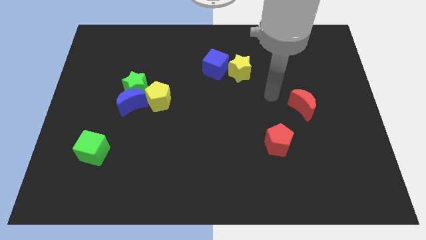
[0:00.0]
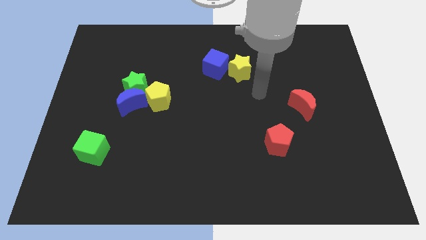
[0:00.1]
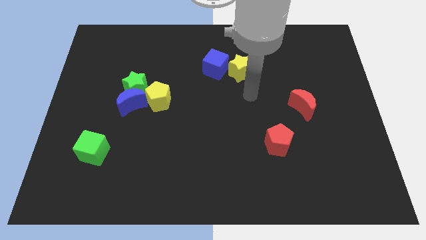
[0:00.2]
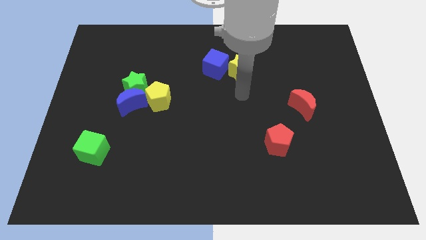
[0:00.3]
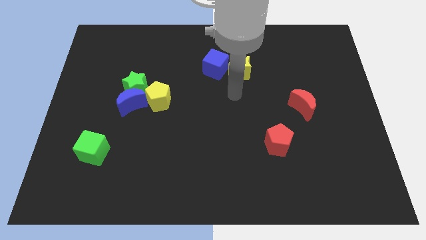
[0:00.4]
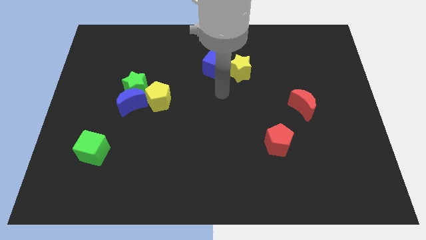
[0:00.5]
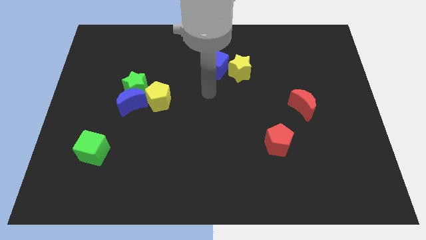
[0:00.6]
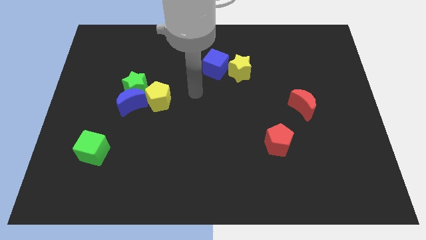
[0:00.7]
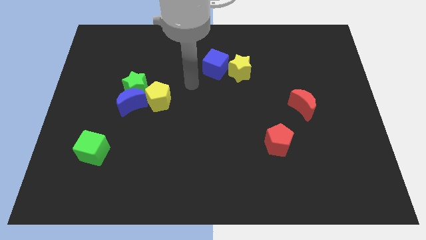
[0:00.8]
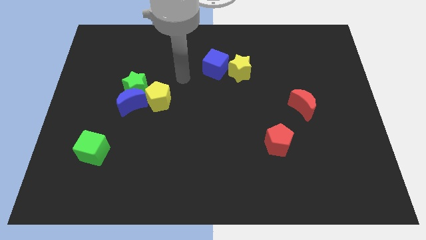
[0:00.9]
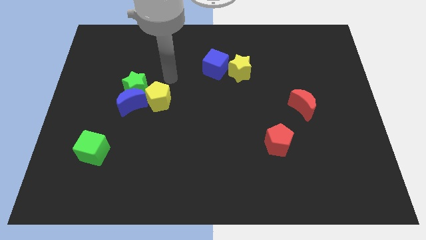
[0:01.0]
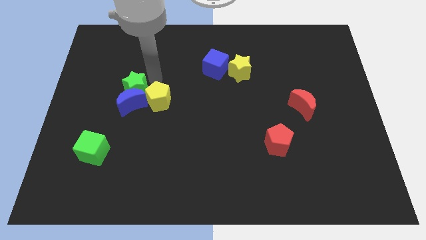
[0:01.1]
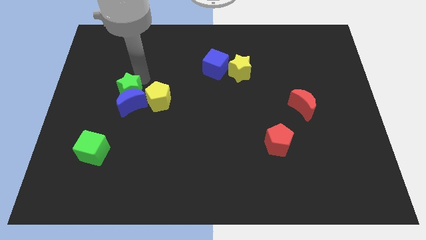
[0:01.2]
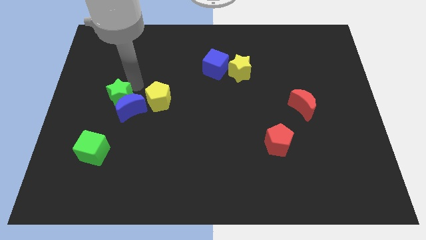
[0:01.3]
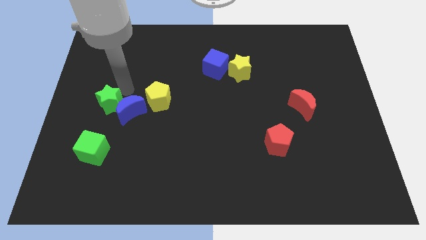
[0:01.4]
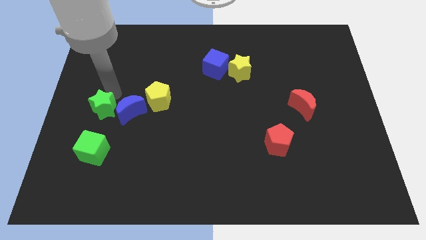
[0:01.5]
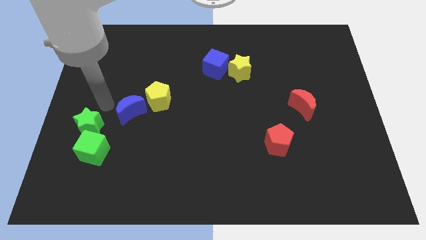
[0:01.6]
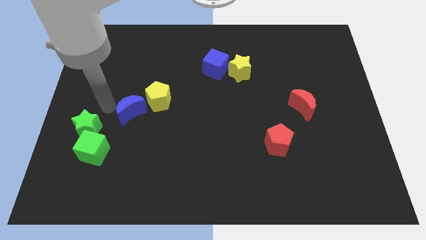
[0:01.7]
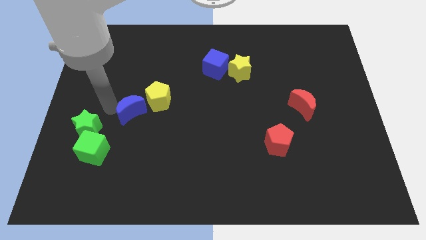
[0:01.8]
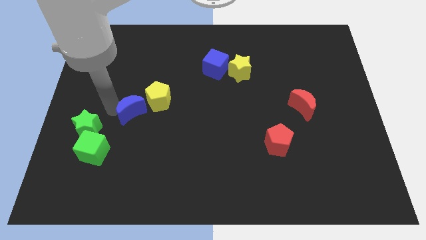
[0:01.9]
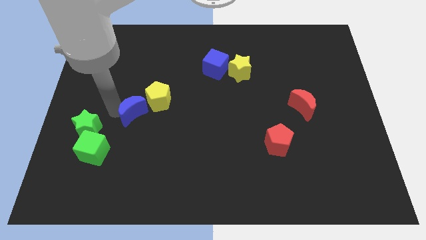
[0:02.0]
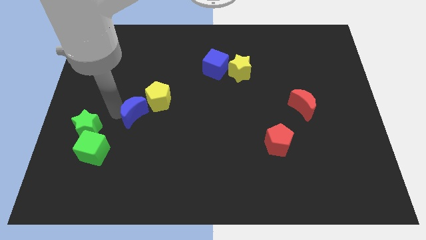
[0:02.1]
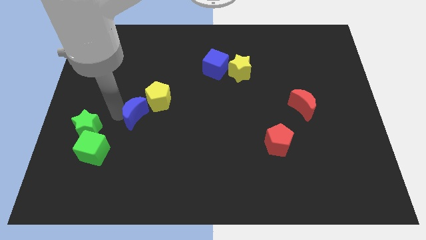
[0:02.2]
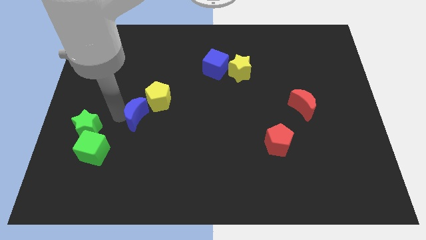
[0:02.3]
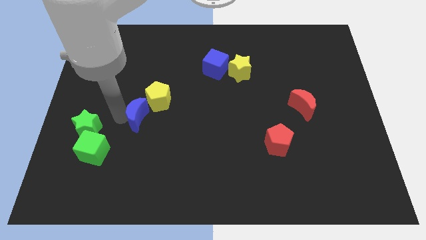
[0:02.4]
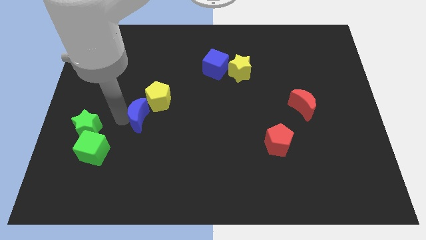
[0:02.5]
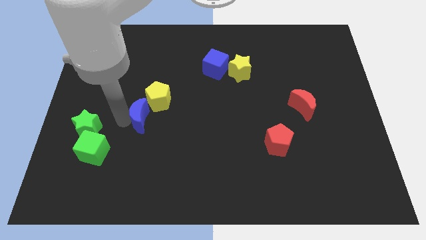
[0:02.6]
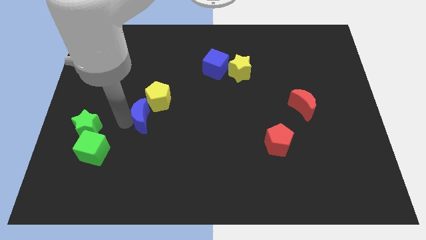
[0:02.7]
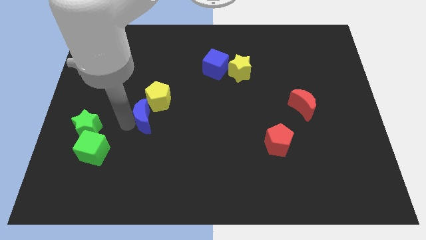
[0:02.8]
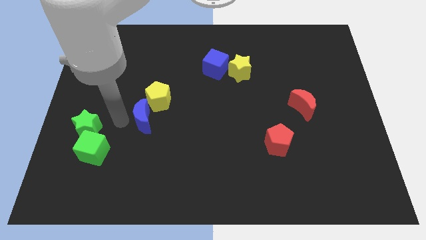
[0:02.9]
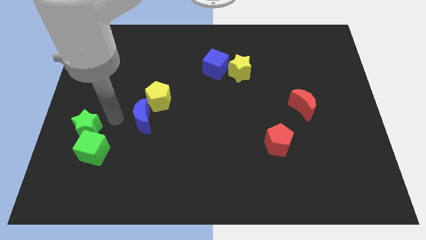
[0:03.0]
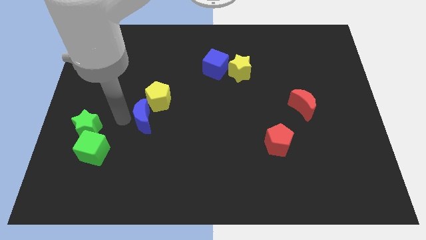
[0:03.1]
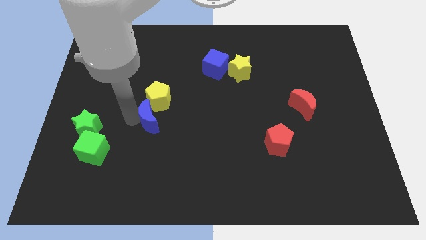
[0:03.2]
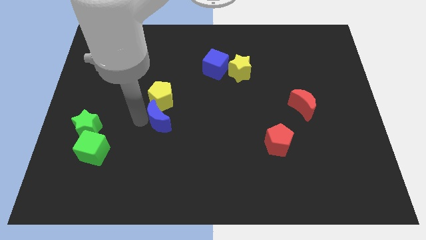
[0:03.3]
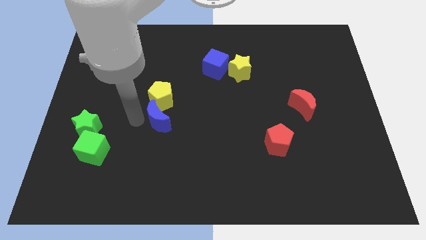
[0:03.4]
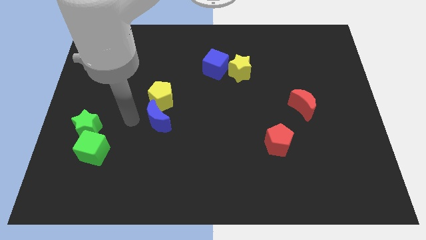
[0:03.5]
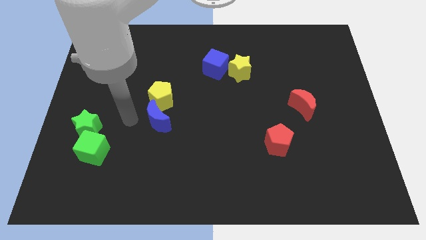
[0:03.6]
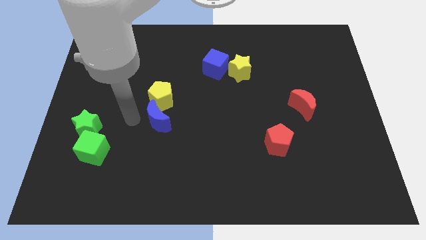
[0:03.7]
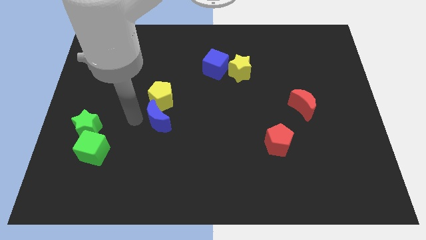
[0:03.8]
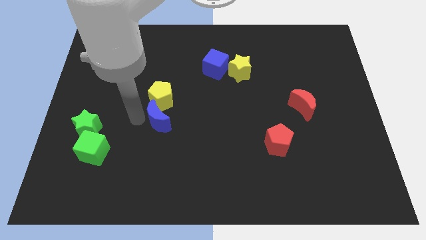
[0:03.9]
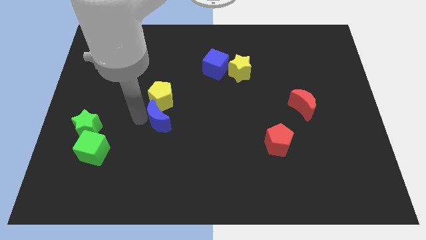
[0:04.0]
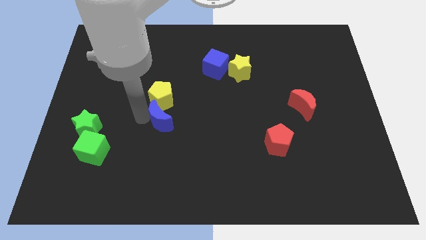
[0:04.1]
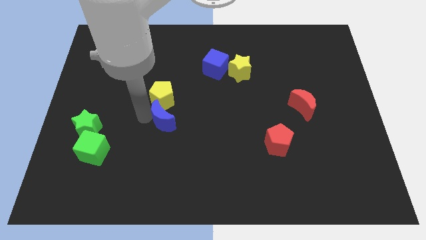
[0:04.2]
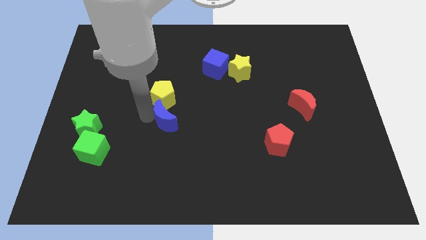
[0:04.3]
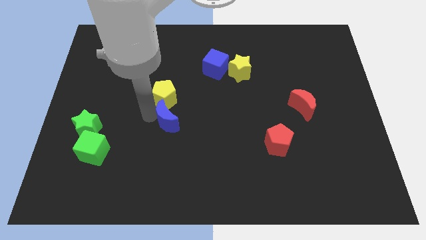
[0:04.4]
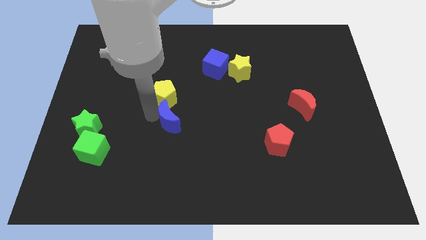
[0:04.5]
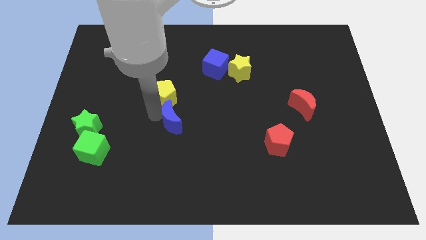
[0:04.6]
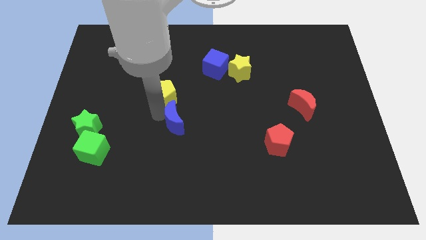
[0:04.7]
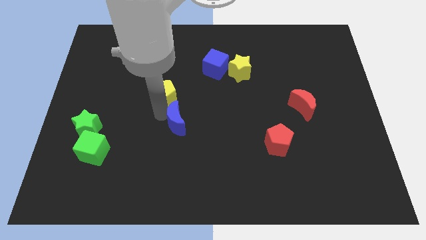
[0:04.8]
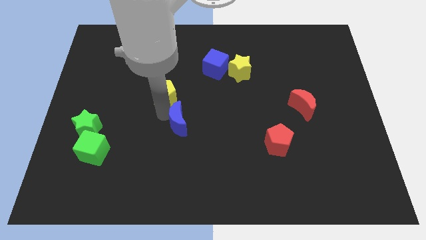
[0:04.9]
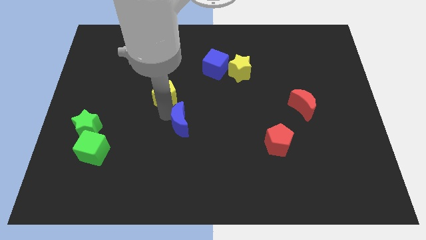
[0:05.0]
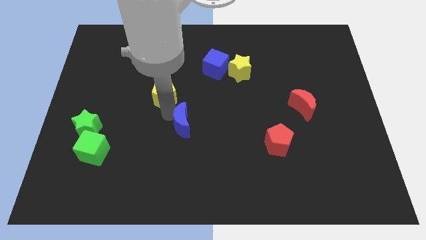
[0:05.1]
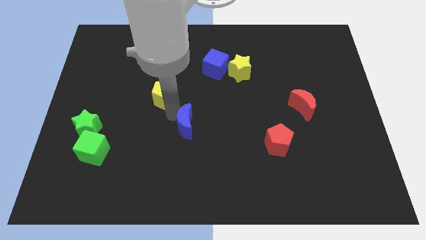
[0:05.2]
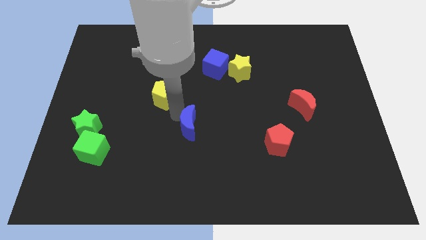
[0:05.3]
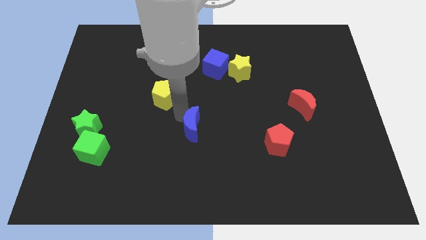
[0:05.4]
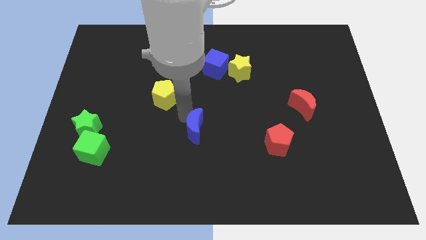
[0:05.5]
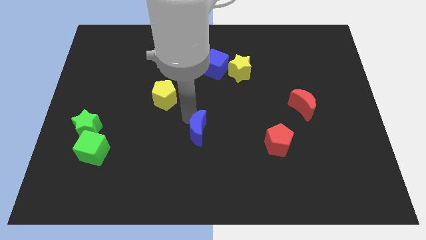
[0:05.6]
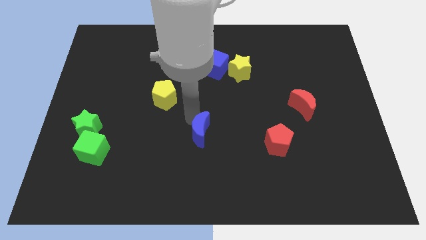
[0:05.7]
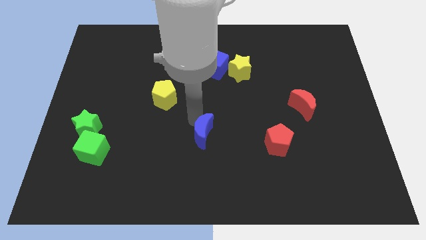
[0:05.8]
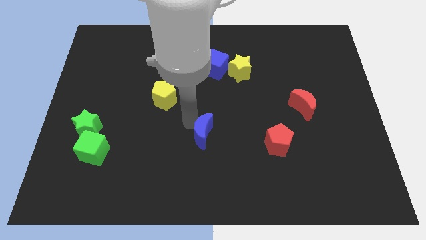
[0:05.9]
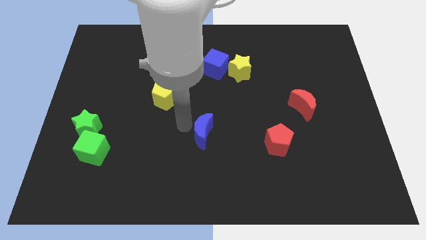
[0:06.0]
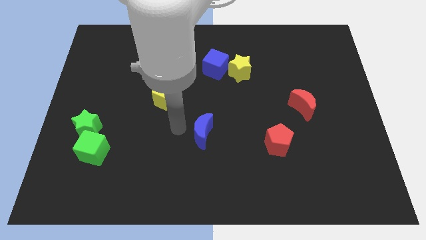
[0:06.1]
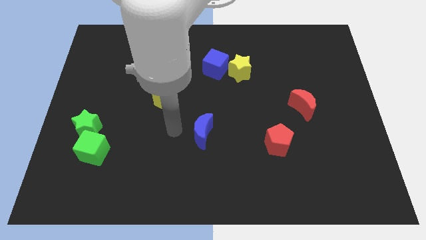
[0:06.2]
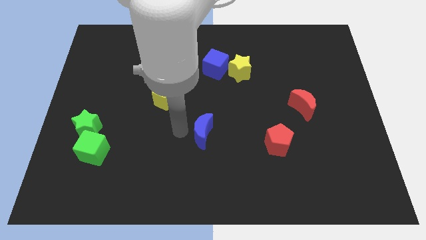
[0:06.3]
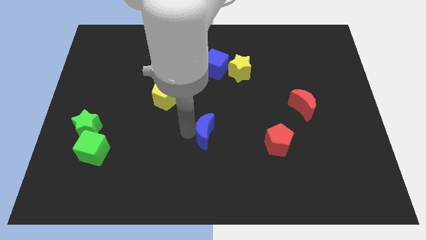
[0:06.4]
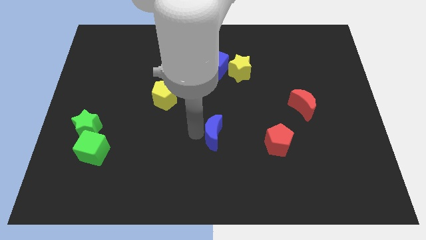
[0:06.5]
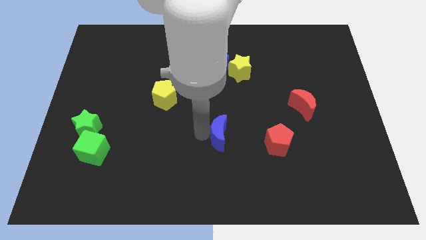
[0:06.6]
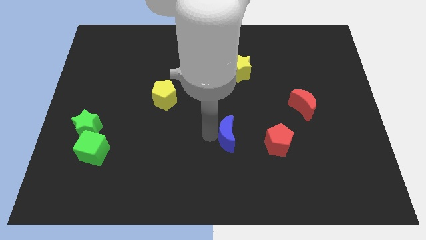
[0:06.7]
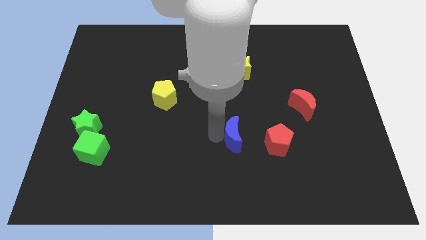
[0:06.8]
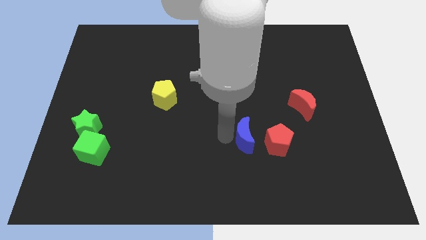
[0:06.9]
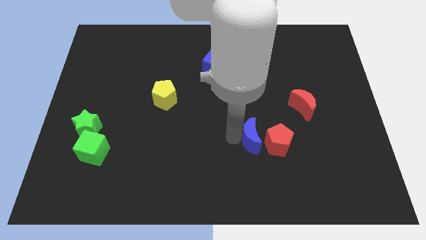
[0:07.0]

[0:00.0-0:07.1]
put the blue moon close to the red pentagon

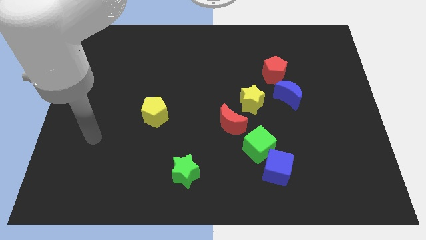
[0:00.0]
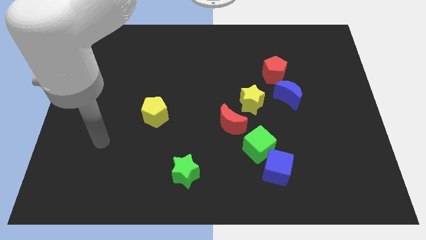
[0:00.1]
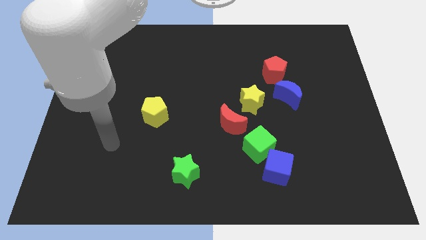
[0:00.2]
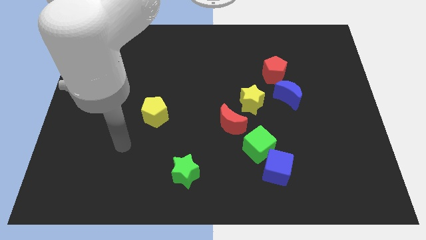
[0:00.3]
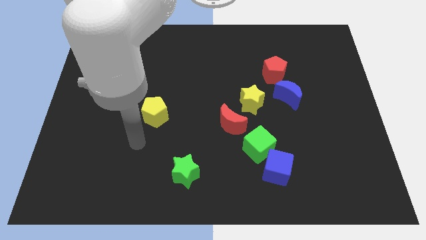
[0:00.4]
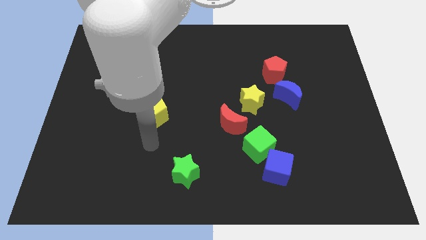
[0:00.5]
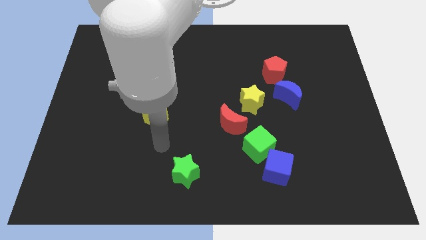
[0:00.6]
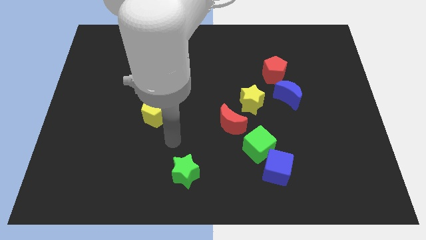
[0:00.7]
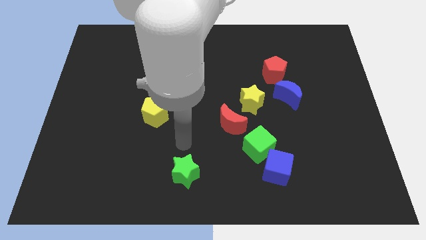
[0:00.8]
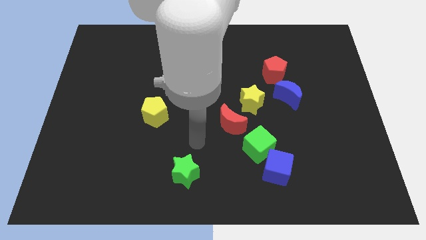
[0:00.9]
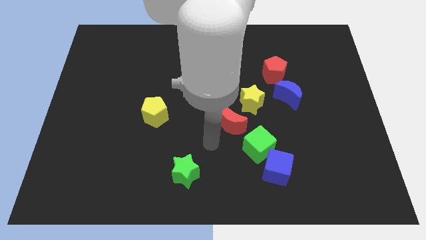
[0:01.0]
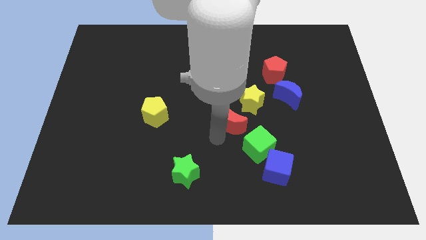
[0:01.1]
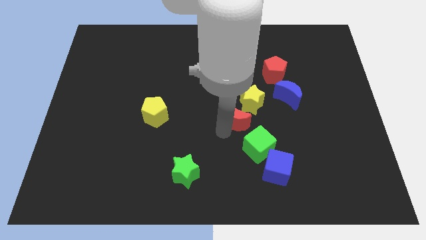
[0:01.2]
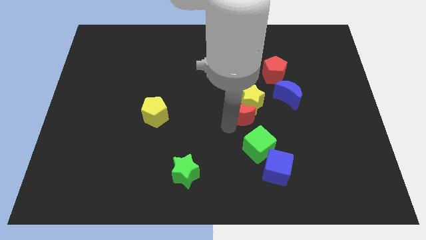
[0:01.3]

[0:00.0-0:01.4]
put the red moon towards the yellow star

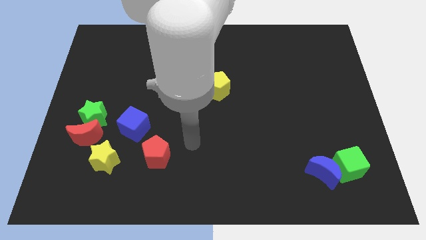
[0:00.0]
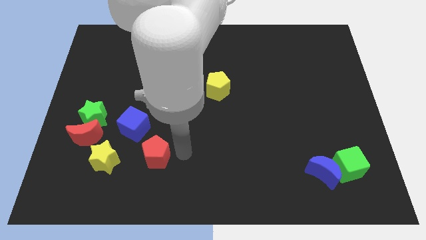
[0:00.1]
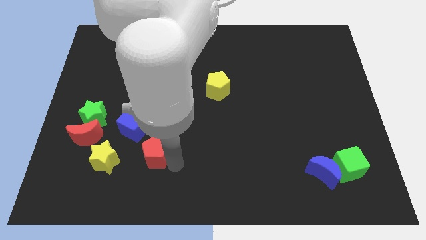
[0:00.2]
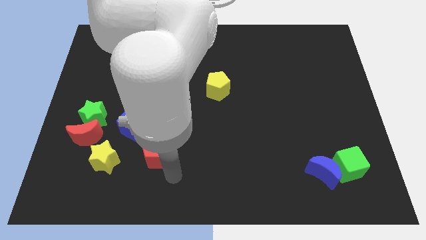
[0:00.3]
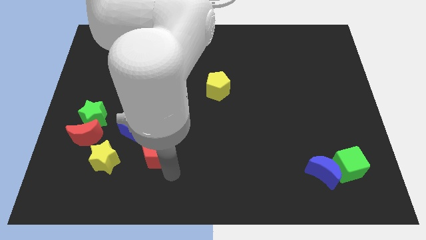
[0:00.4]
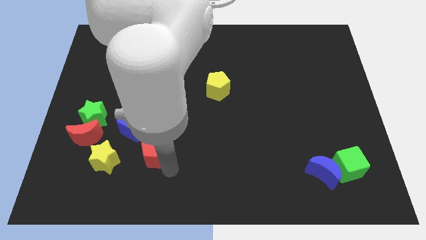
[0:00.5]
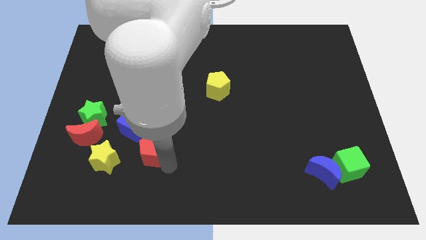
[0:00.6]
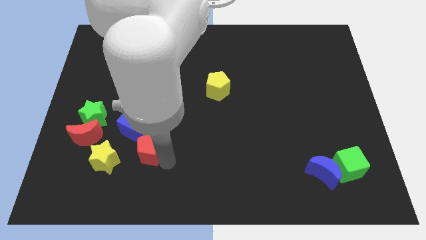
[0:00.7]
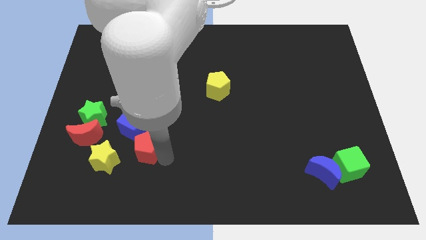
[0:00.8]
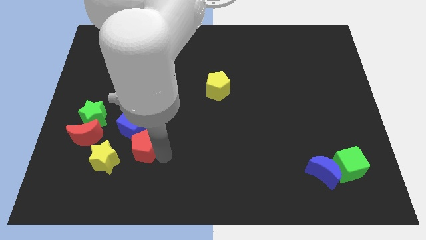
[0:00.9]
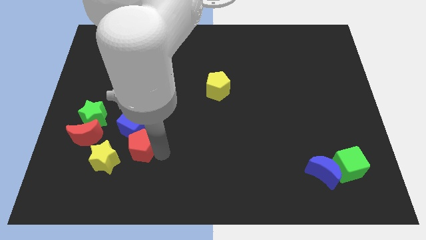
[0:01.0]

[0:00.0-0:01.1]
move the red pentagon next to the blue cube
